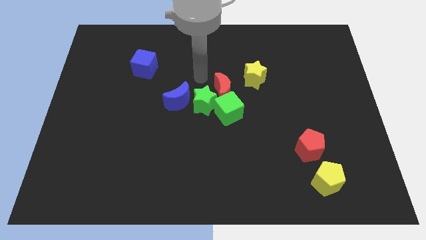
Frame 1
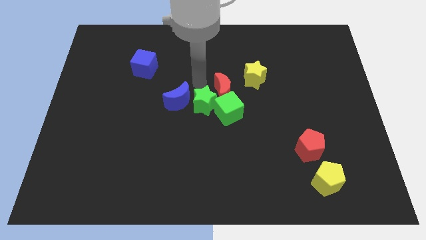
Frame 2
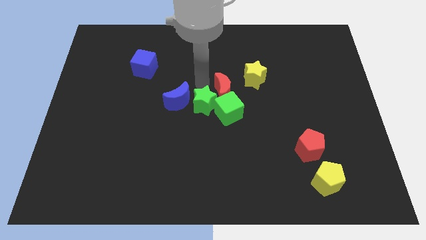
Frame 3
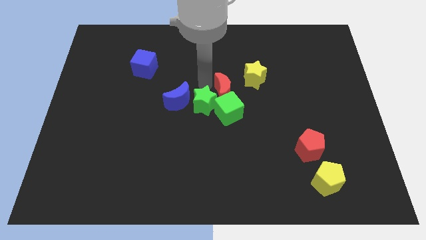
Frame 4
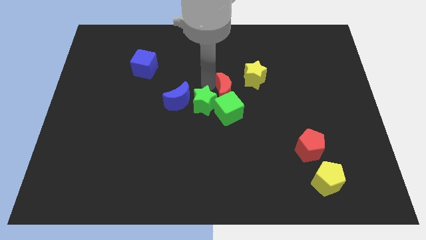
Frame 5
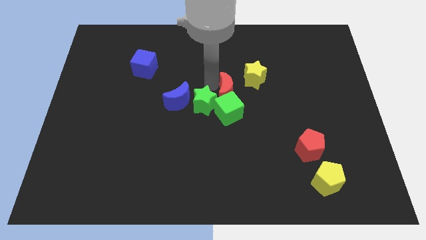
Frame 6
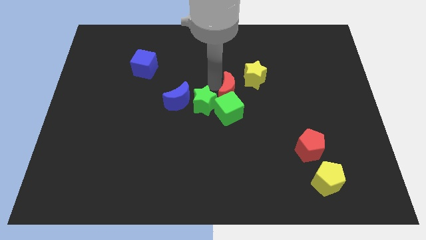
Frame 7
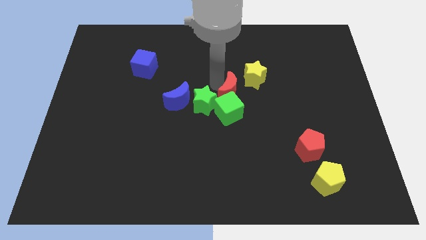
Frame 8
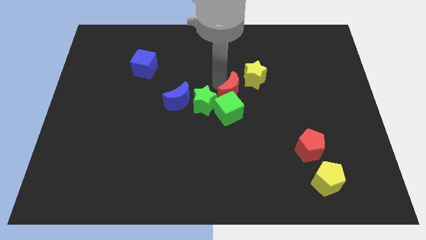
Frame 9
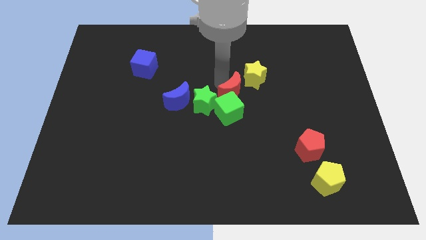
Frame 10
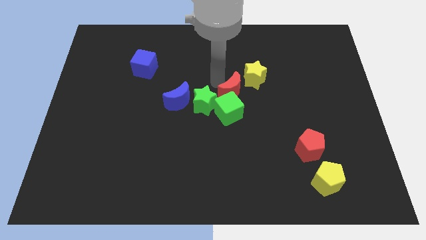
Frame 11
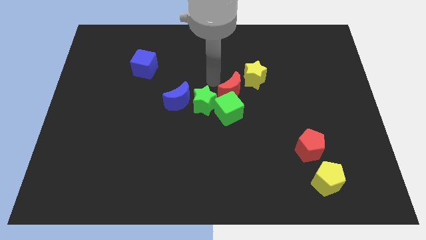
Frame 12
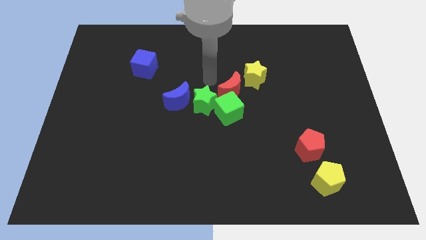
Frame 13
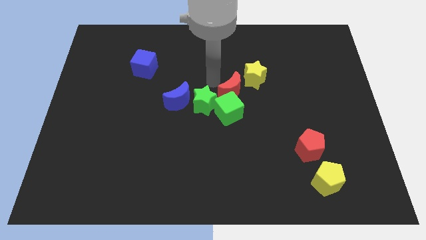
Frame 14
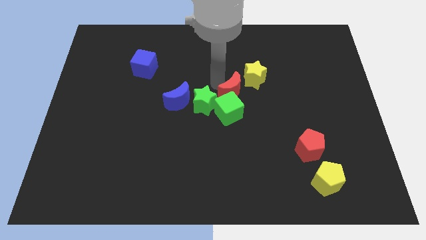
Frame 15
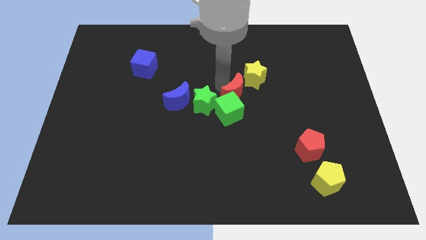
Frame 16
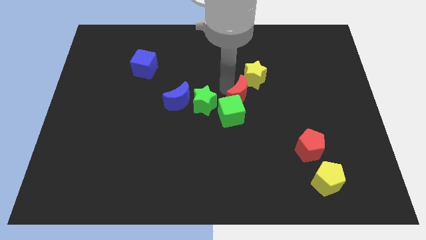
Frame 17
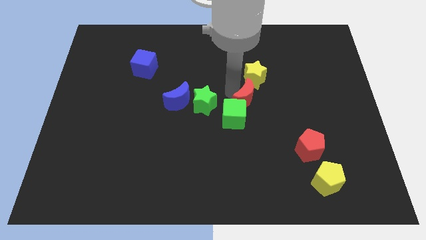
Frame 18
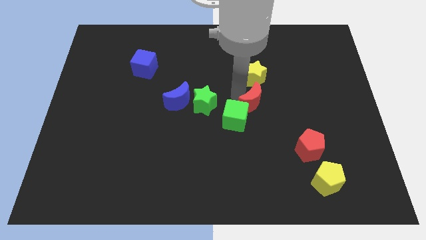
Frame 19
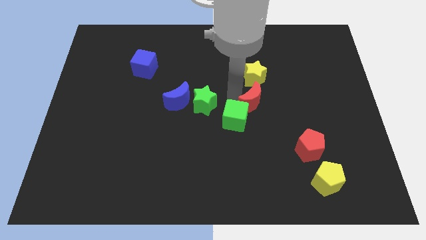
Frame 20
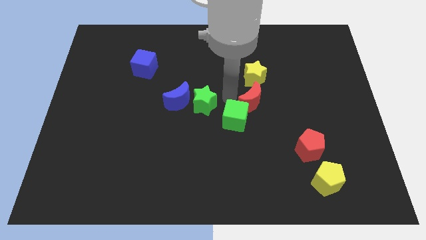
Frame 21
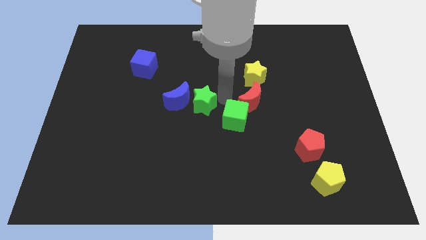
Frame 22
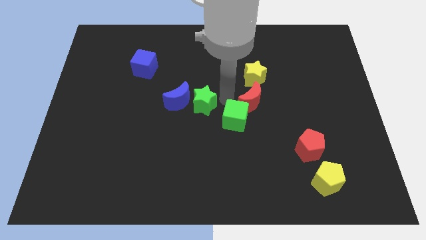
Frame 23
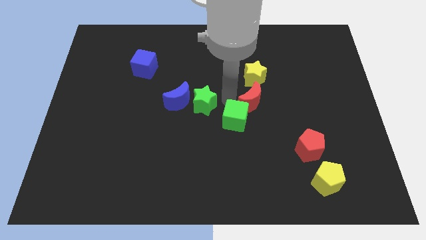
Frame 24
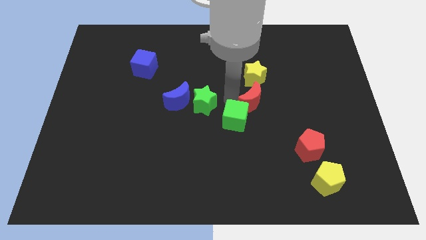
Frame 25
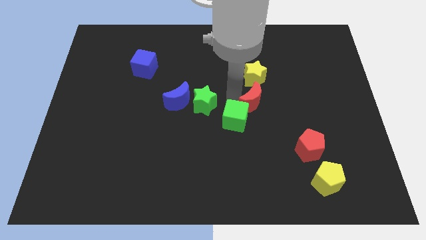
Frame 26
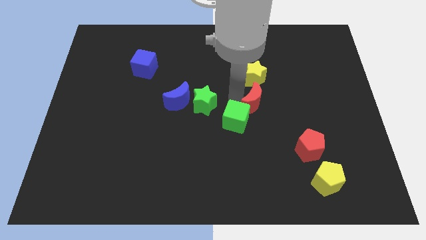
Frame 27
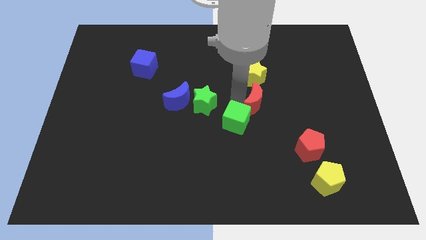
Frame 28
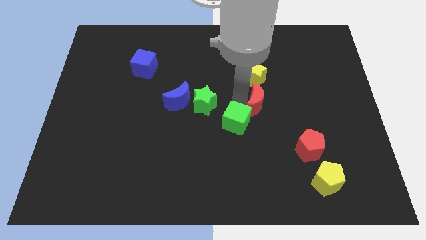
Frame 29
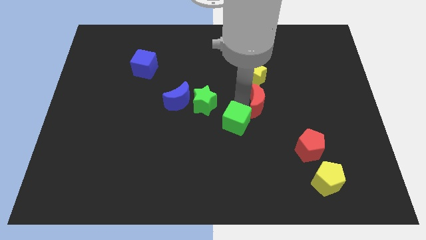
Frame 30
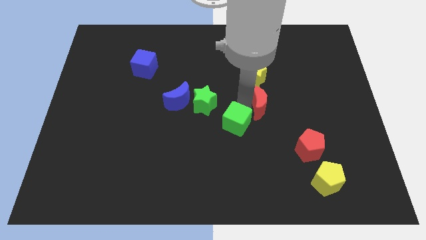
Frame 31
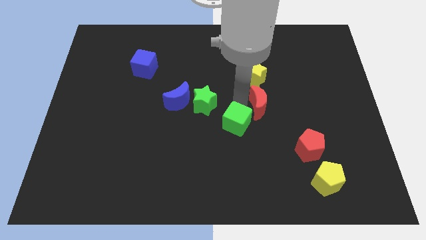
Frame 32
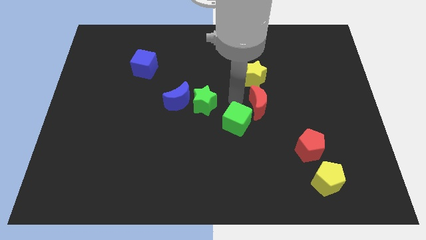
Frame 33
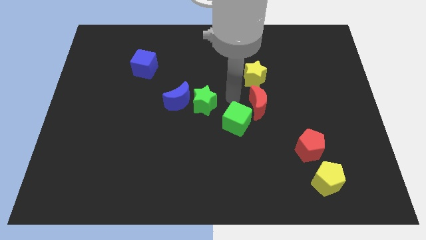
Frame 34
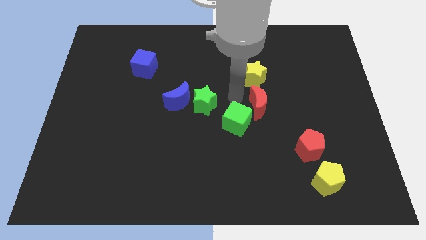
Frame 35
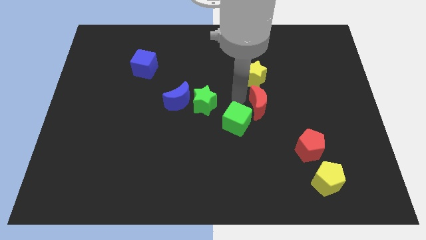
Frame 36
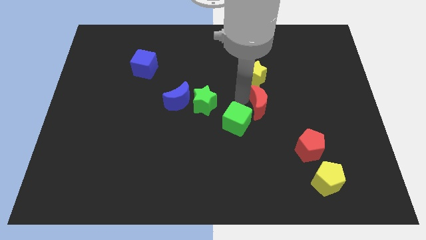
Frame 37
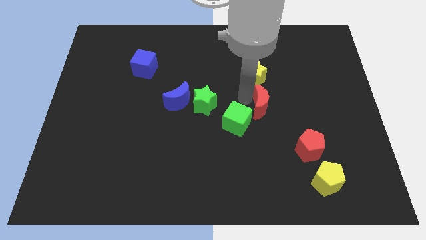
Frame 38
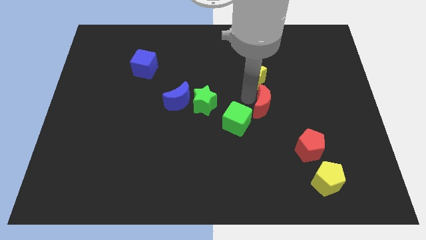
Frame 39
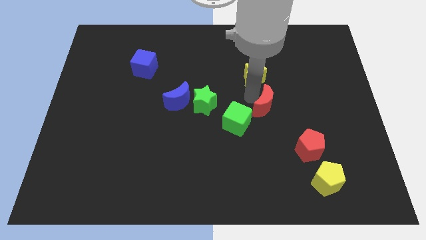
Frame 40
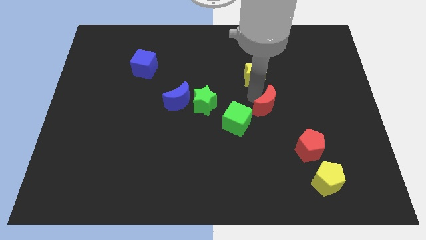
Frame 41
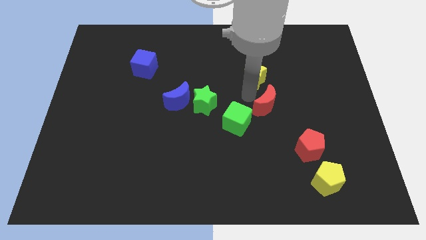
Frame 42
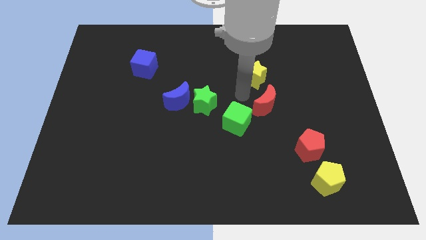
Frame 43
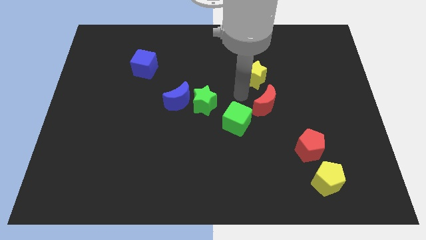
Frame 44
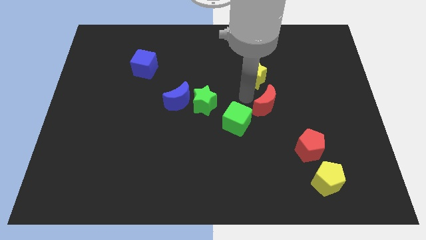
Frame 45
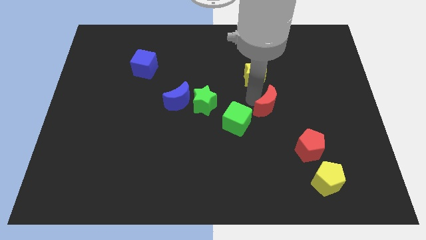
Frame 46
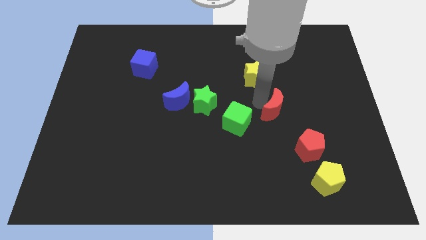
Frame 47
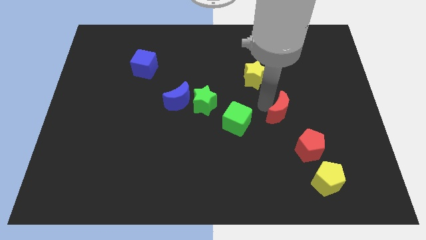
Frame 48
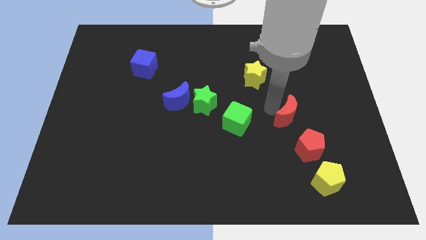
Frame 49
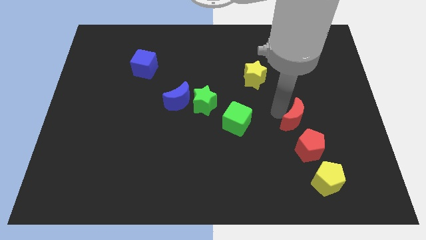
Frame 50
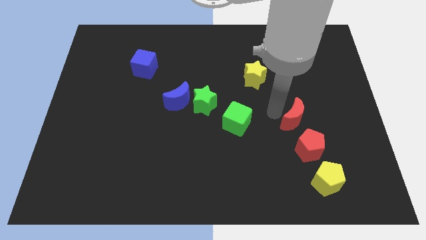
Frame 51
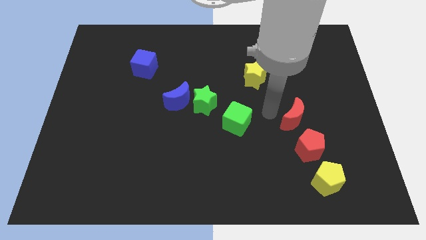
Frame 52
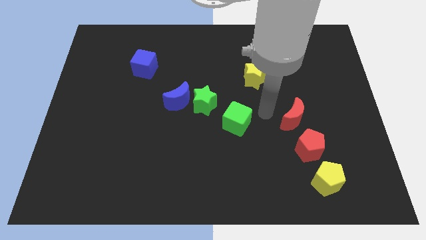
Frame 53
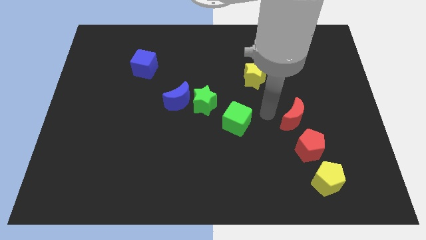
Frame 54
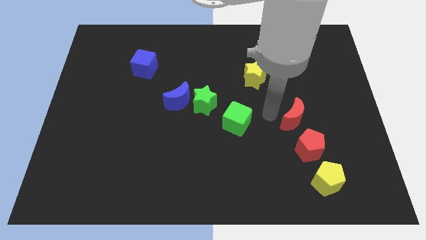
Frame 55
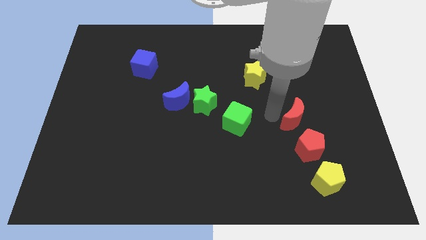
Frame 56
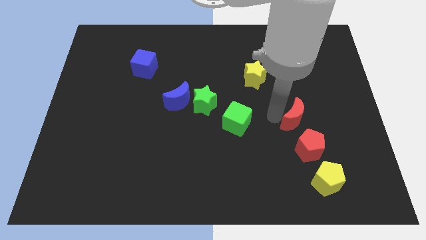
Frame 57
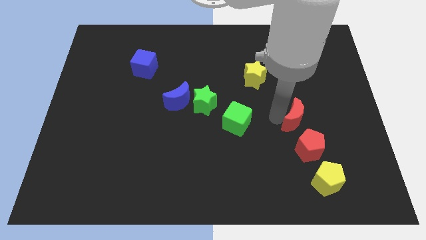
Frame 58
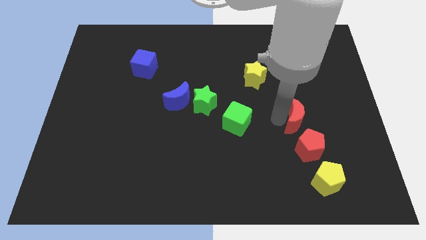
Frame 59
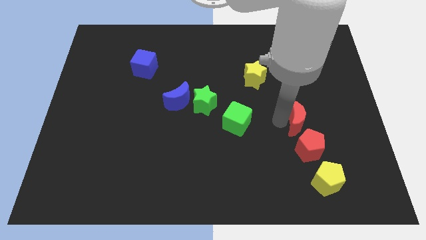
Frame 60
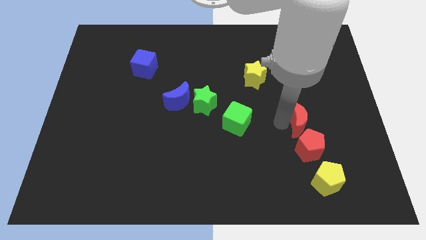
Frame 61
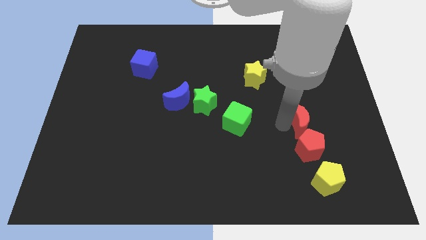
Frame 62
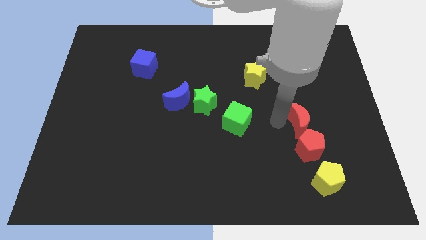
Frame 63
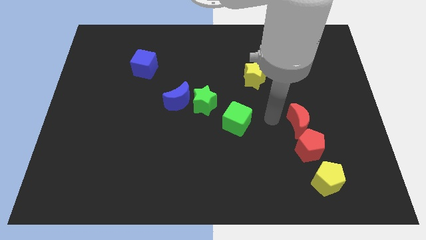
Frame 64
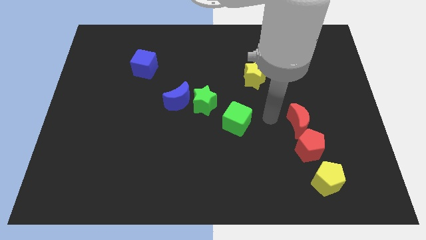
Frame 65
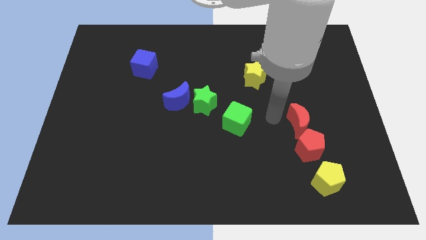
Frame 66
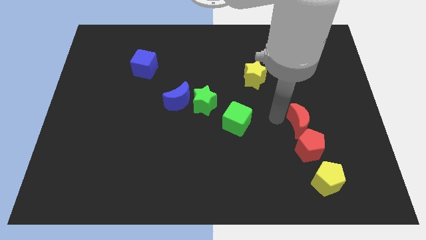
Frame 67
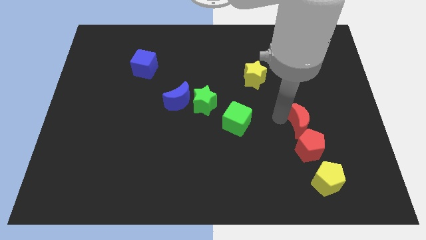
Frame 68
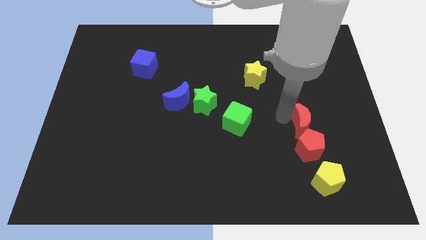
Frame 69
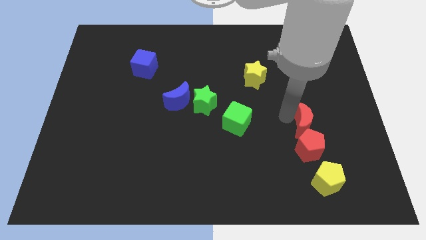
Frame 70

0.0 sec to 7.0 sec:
slide the red moon diagonally up and to the right of the red pentagon

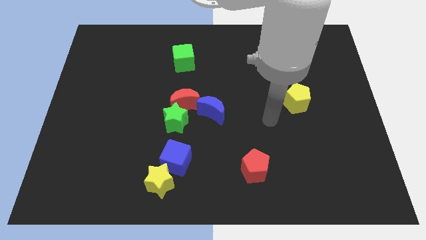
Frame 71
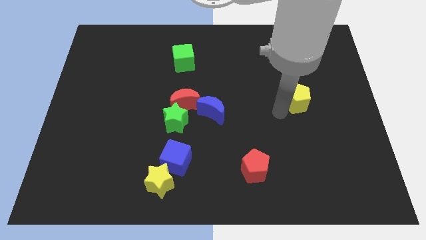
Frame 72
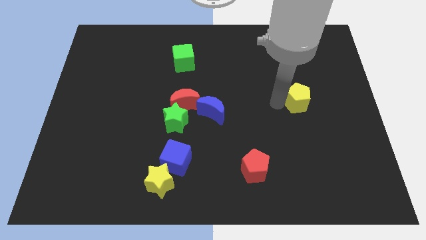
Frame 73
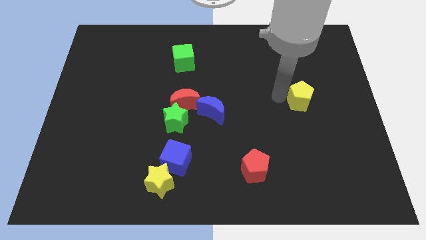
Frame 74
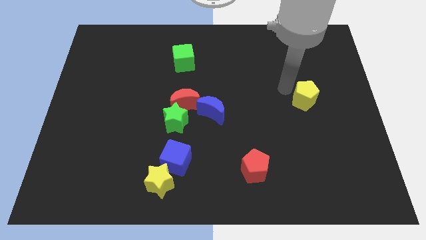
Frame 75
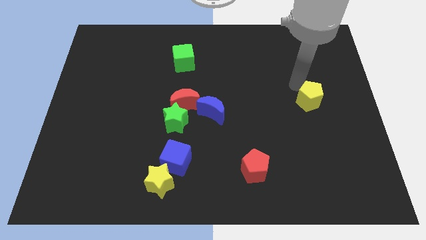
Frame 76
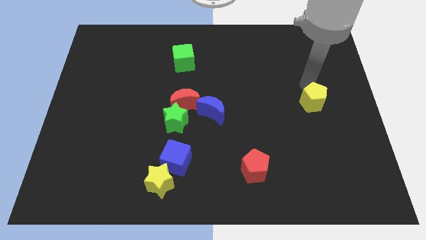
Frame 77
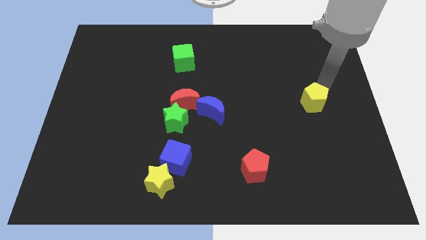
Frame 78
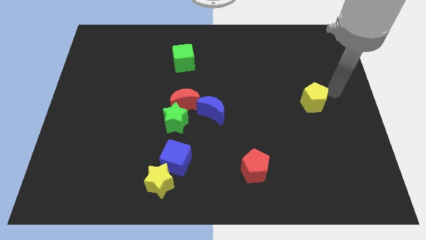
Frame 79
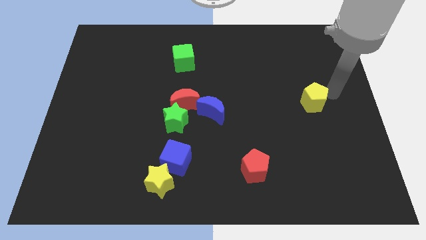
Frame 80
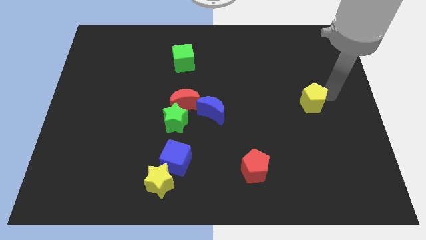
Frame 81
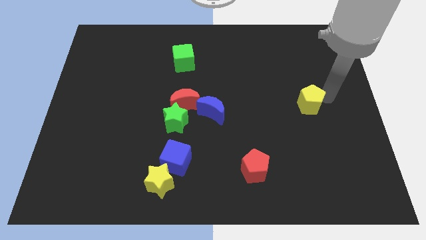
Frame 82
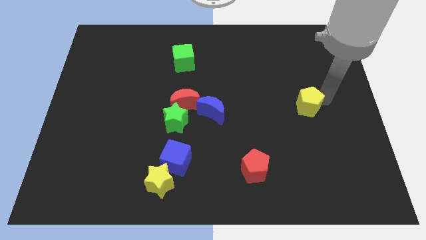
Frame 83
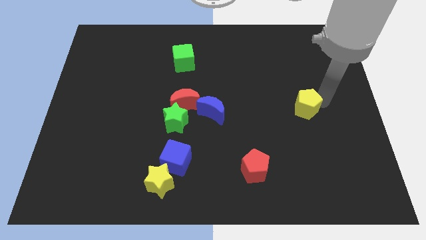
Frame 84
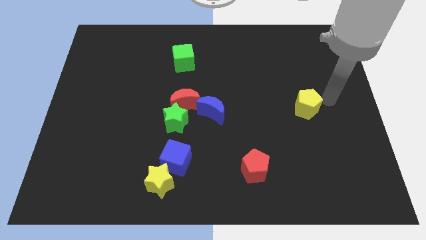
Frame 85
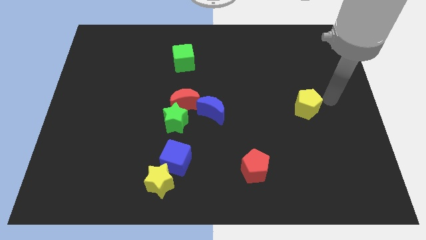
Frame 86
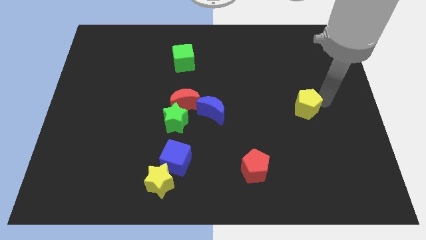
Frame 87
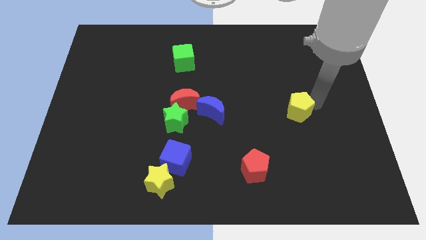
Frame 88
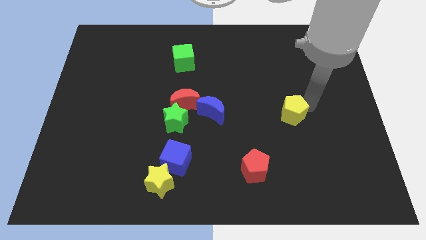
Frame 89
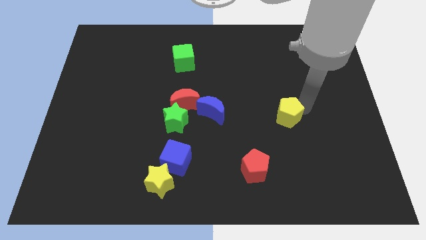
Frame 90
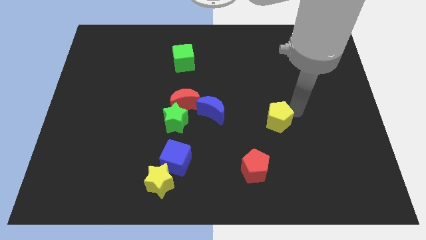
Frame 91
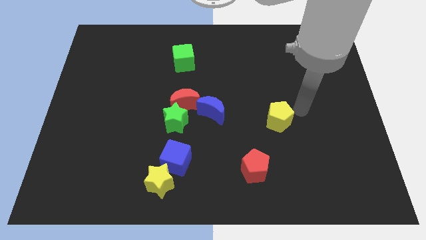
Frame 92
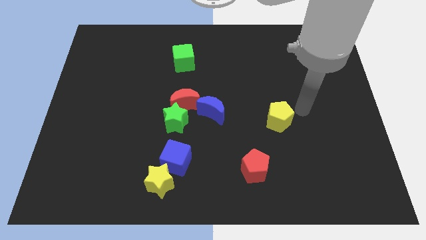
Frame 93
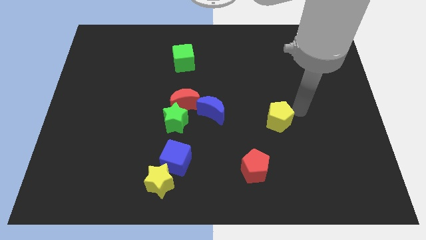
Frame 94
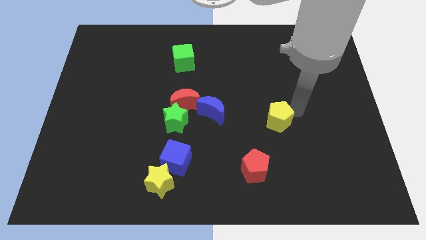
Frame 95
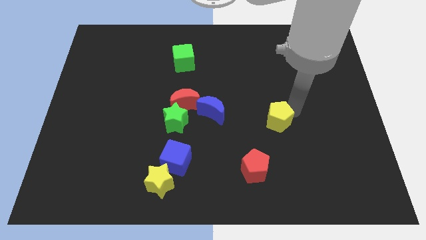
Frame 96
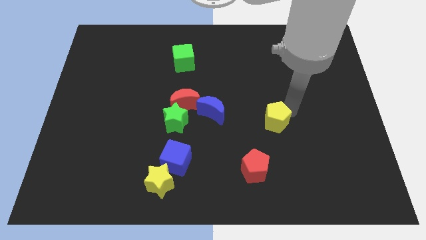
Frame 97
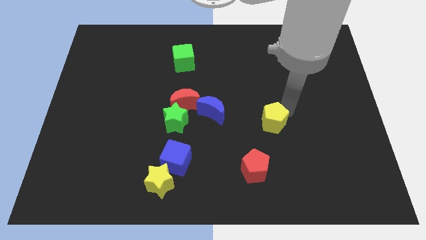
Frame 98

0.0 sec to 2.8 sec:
move the yellow pentagon to the top side of the red pentagon
